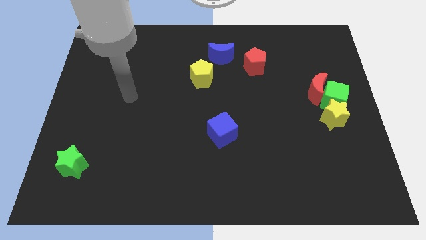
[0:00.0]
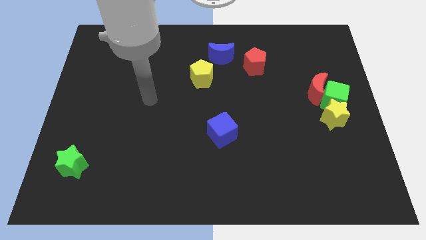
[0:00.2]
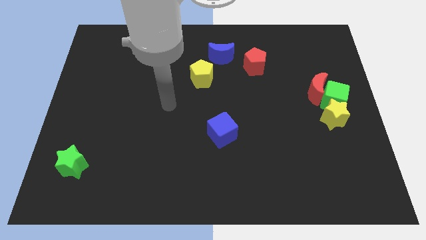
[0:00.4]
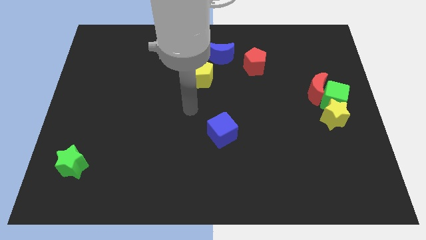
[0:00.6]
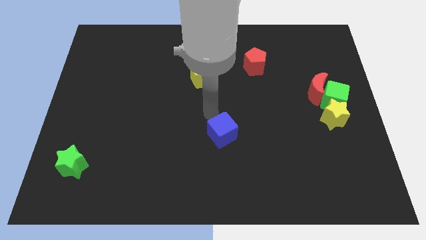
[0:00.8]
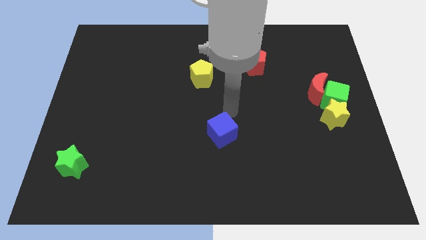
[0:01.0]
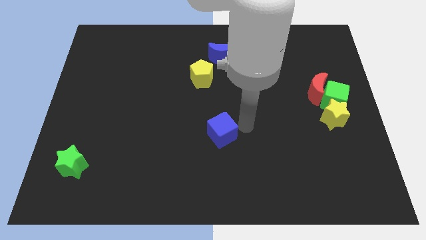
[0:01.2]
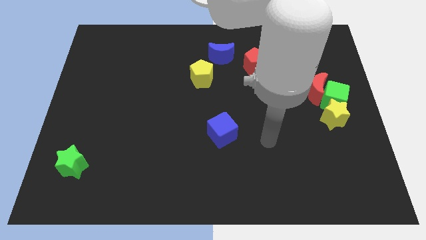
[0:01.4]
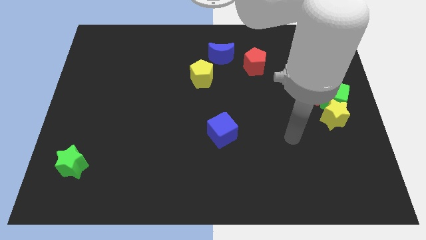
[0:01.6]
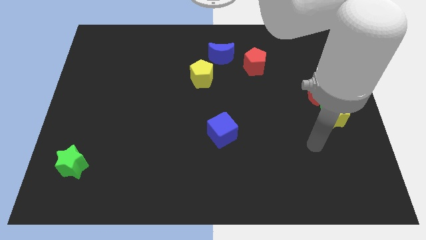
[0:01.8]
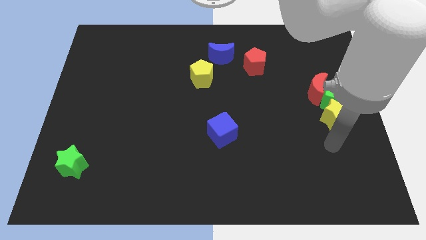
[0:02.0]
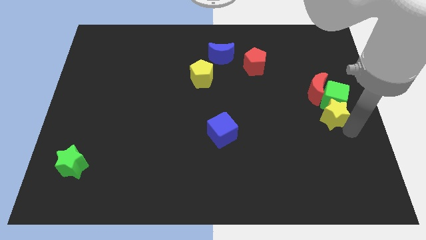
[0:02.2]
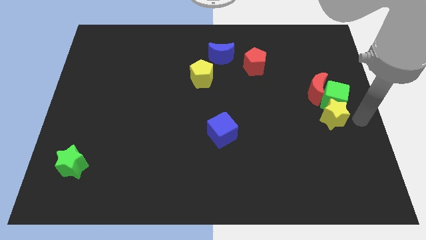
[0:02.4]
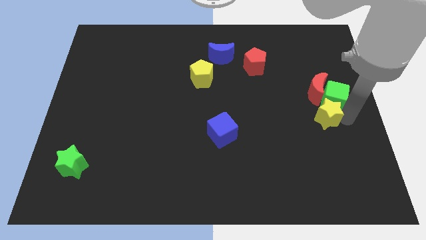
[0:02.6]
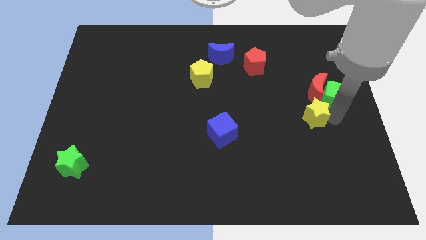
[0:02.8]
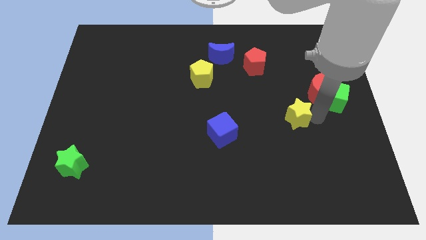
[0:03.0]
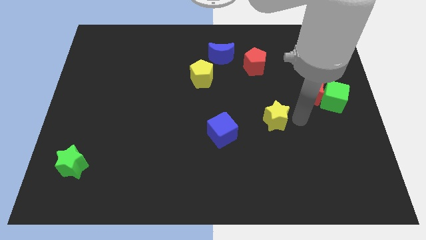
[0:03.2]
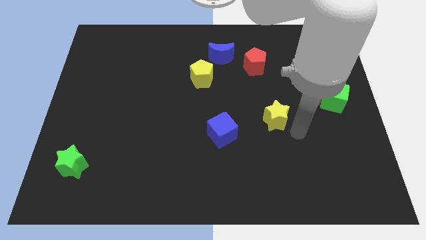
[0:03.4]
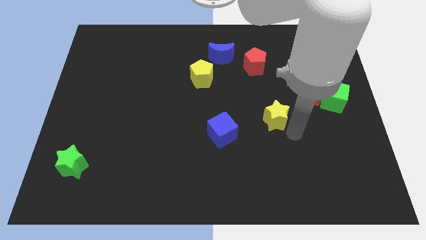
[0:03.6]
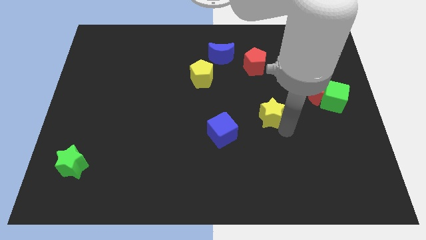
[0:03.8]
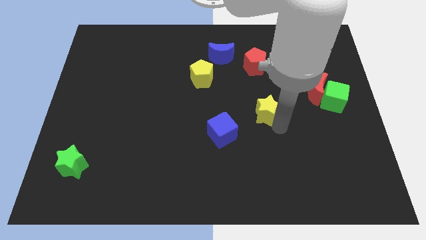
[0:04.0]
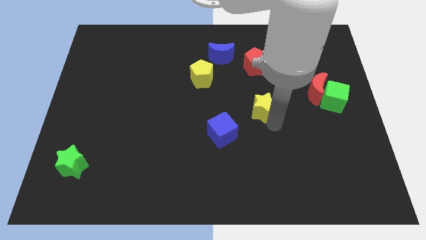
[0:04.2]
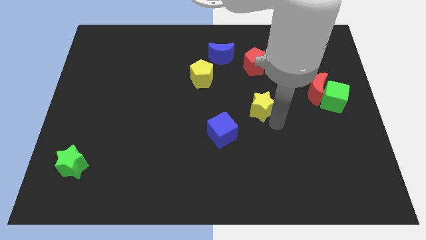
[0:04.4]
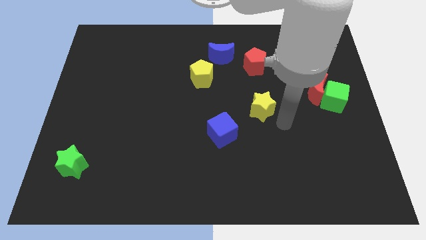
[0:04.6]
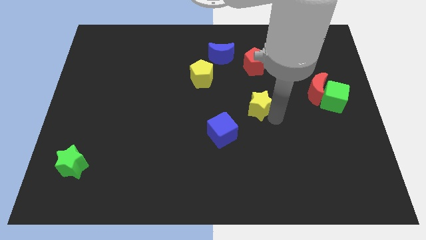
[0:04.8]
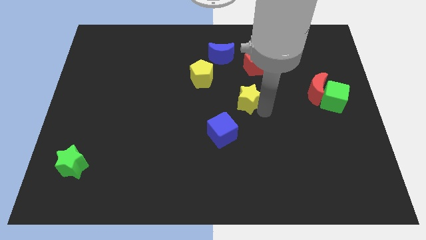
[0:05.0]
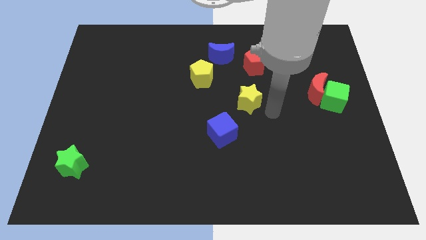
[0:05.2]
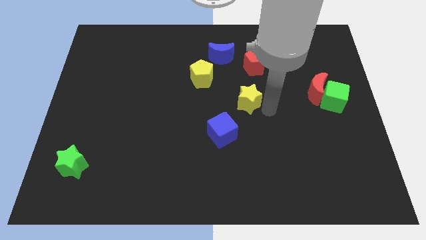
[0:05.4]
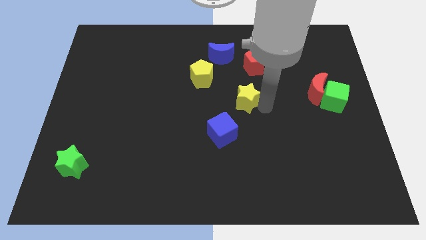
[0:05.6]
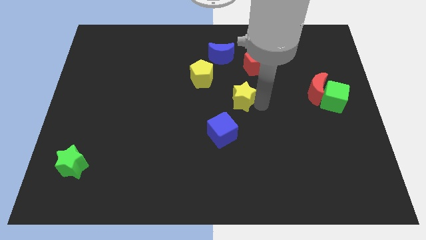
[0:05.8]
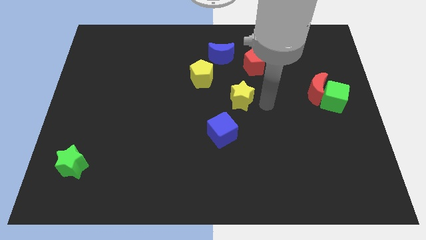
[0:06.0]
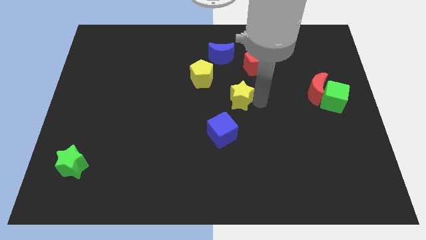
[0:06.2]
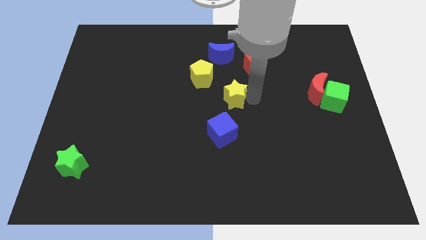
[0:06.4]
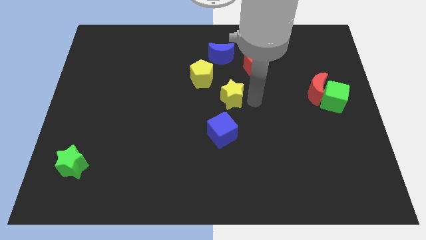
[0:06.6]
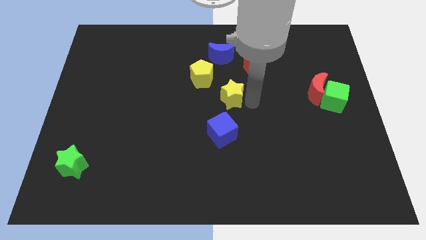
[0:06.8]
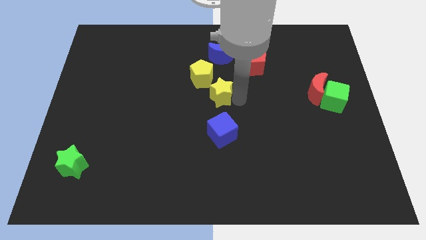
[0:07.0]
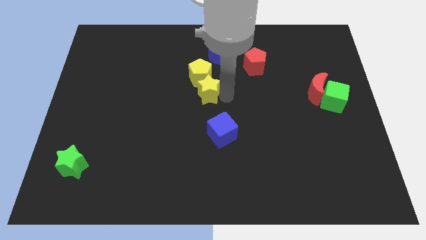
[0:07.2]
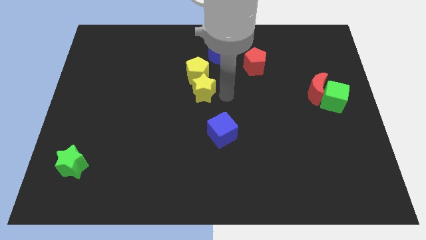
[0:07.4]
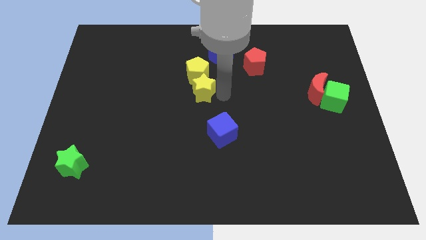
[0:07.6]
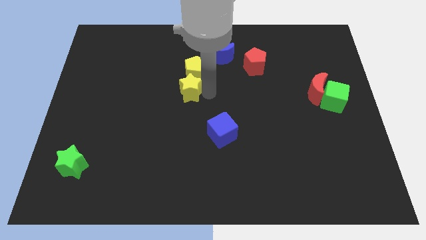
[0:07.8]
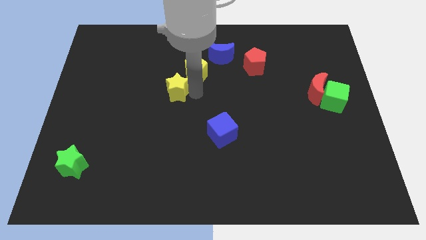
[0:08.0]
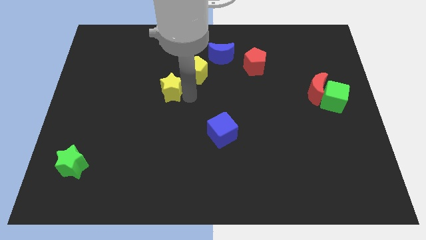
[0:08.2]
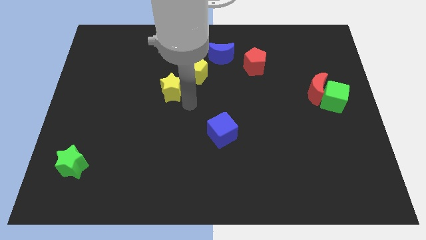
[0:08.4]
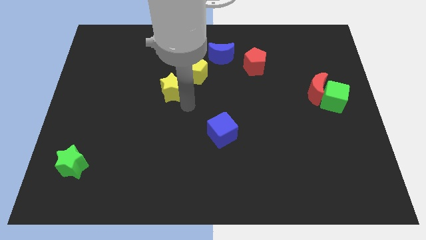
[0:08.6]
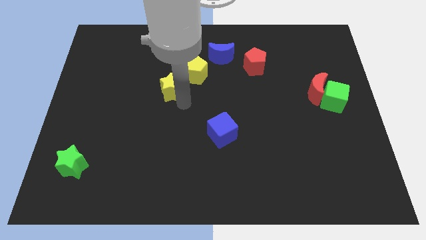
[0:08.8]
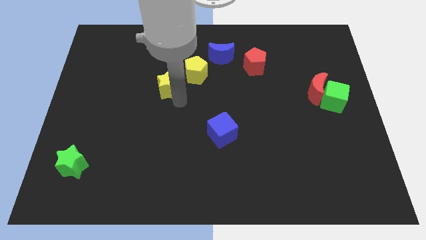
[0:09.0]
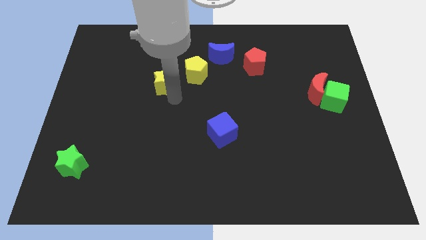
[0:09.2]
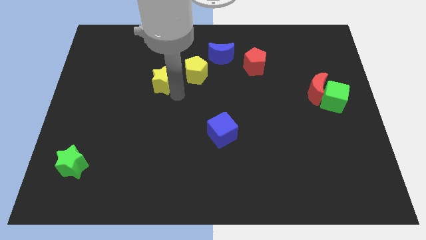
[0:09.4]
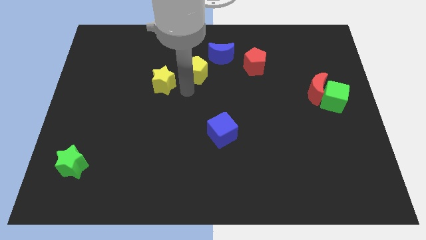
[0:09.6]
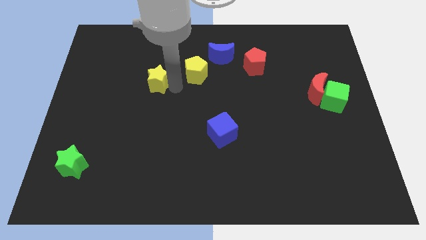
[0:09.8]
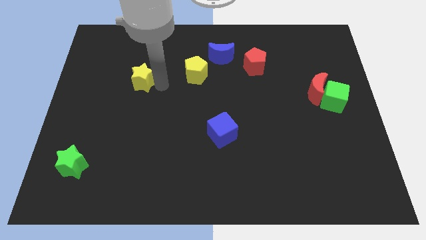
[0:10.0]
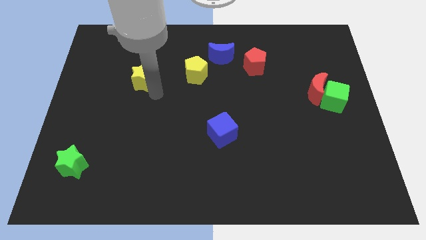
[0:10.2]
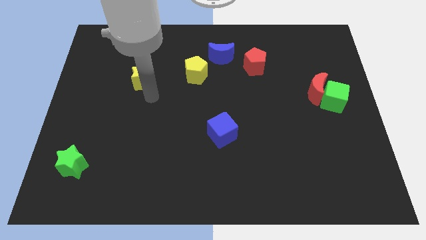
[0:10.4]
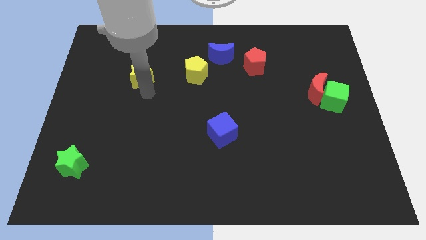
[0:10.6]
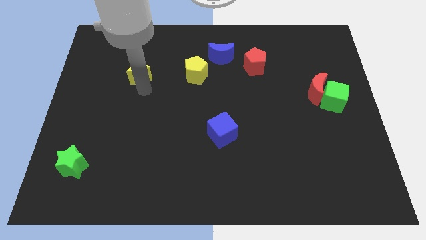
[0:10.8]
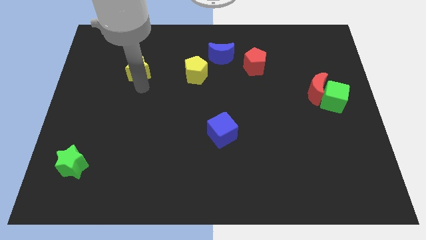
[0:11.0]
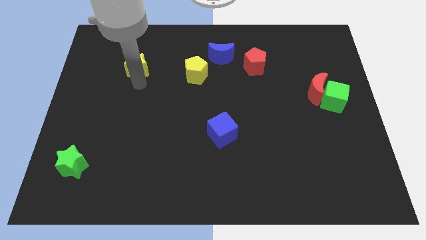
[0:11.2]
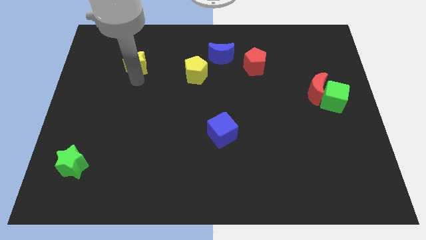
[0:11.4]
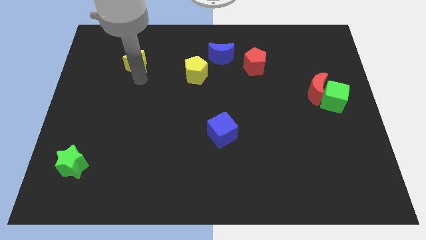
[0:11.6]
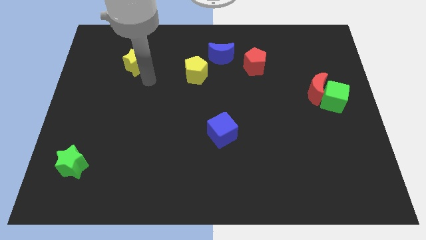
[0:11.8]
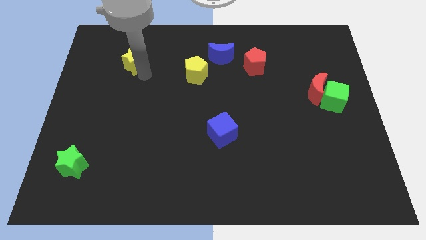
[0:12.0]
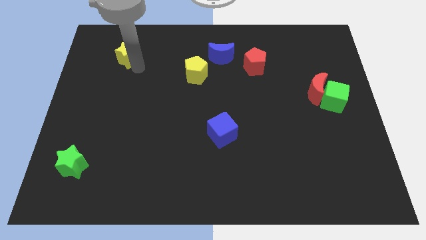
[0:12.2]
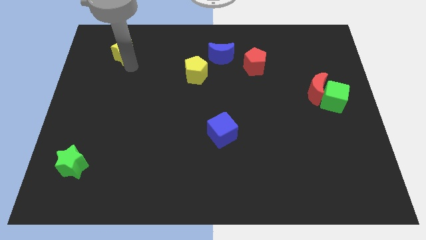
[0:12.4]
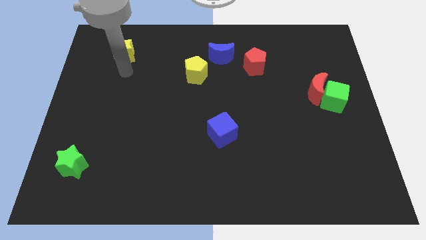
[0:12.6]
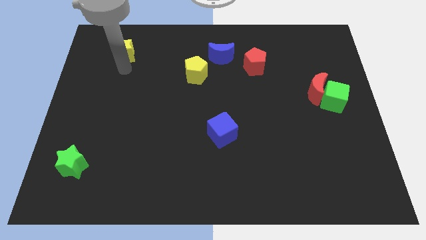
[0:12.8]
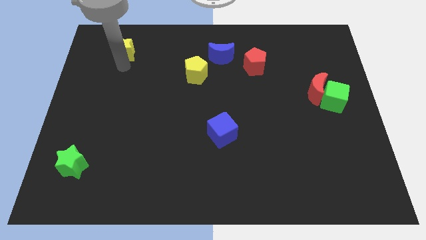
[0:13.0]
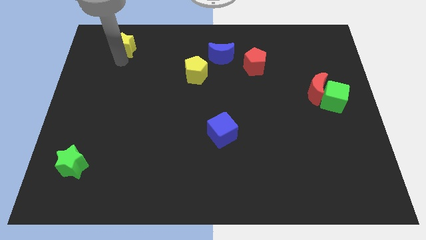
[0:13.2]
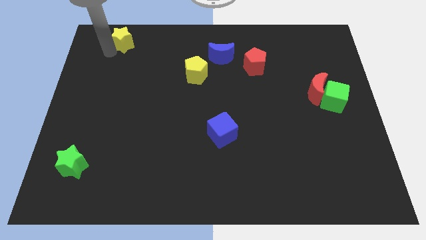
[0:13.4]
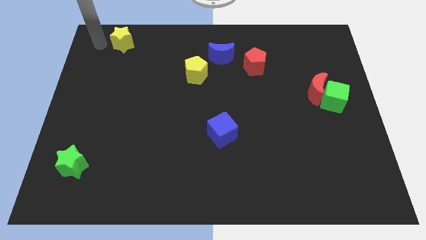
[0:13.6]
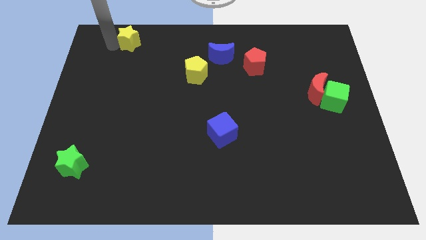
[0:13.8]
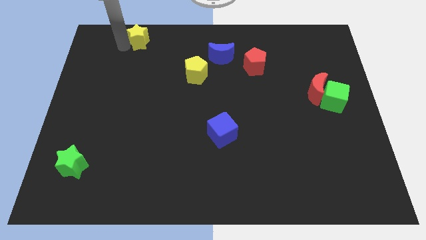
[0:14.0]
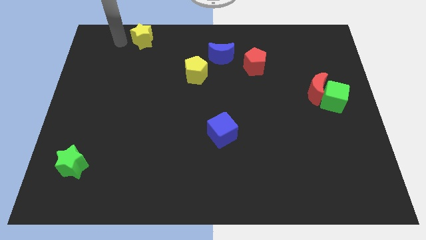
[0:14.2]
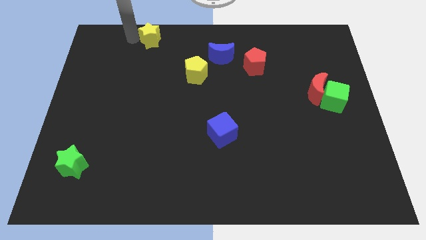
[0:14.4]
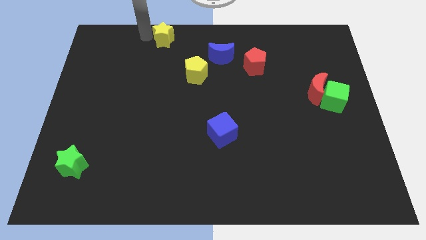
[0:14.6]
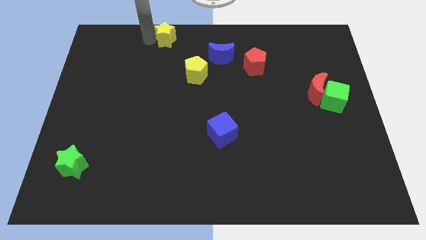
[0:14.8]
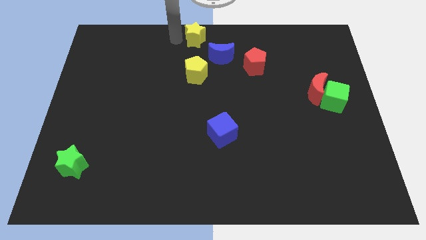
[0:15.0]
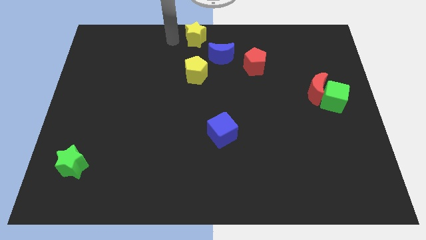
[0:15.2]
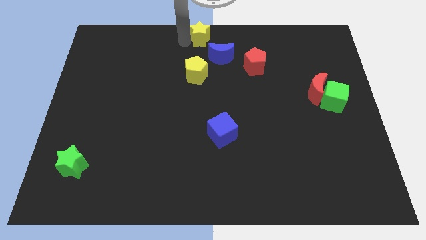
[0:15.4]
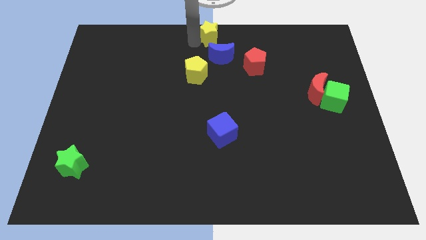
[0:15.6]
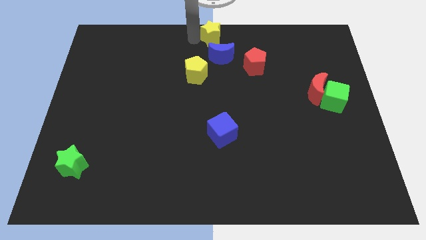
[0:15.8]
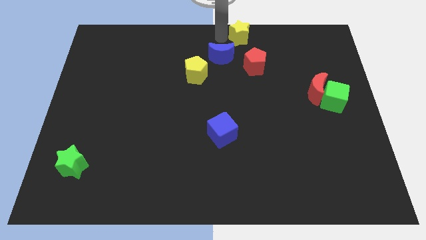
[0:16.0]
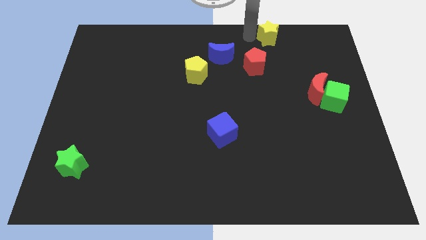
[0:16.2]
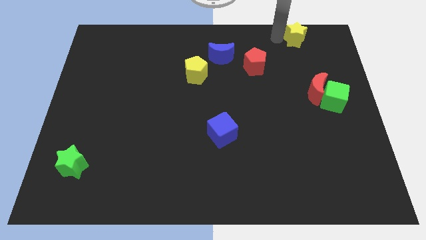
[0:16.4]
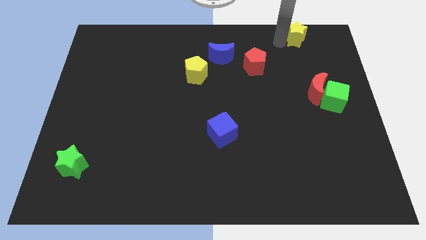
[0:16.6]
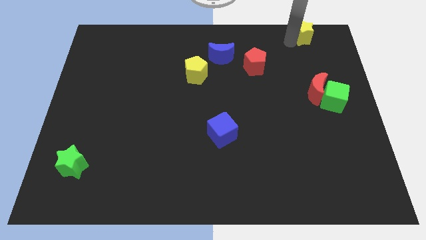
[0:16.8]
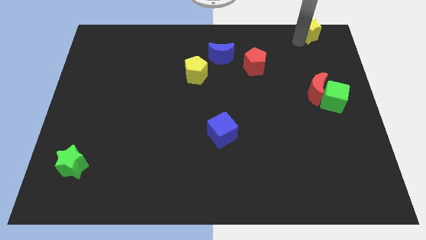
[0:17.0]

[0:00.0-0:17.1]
slide the yellow star to the top right corner
